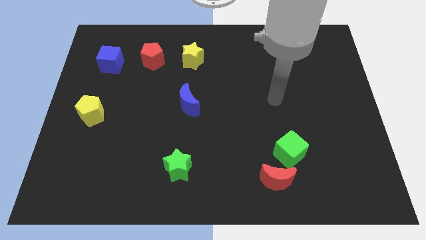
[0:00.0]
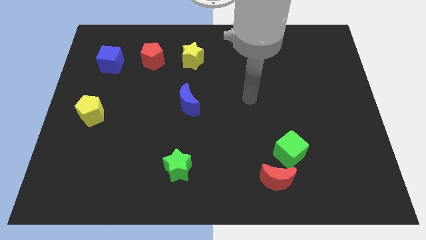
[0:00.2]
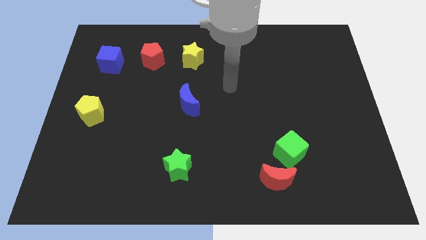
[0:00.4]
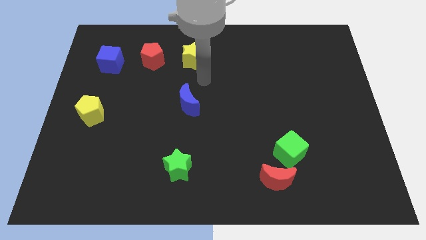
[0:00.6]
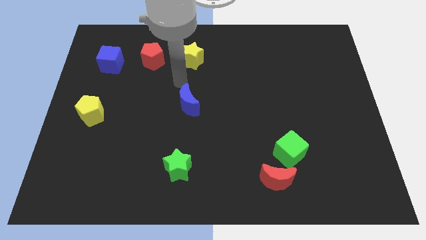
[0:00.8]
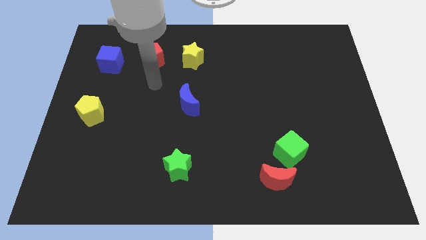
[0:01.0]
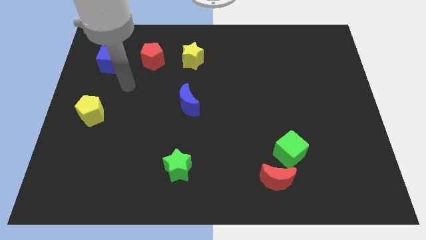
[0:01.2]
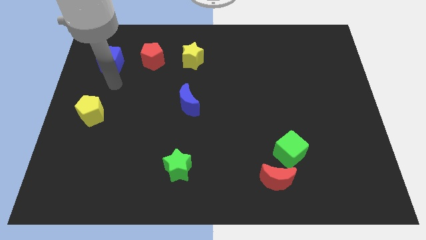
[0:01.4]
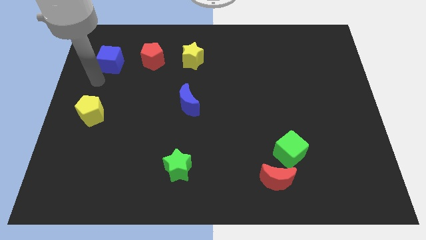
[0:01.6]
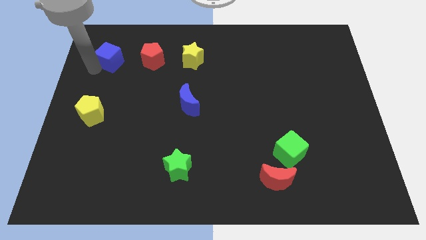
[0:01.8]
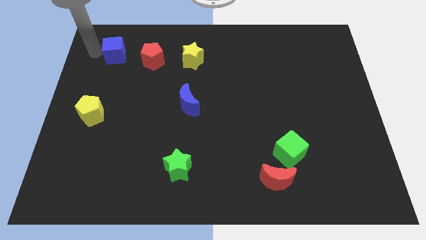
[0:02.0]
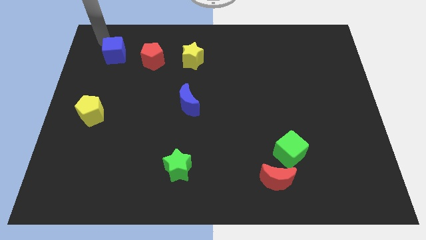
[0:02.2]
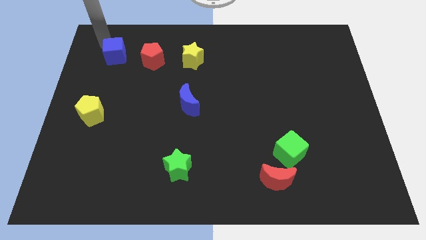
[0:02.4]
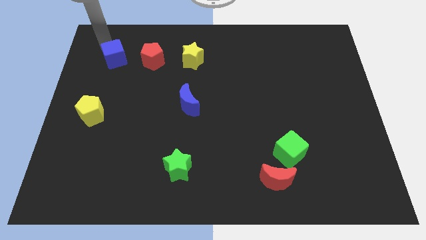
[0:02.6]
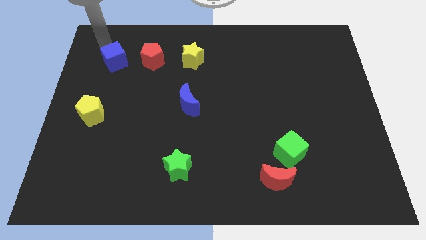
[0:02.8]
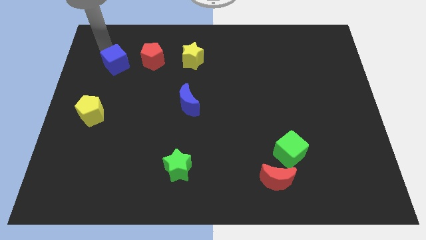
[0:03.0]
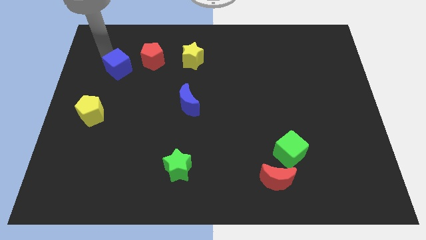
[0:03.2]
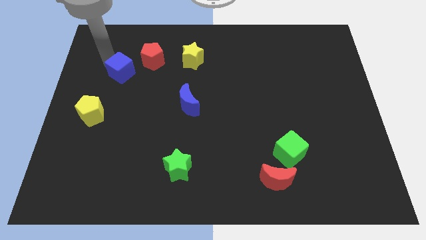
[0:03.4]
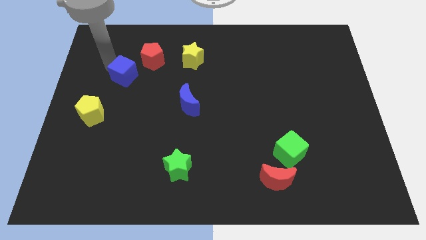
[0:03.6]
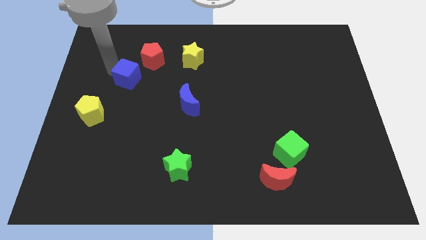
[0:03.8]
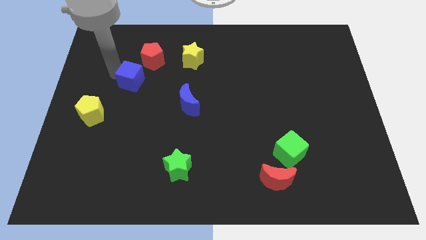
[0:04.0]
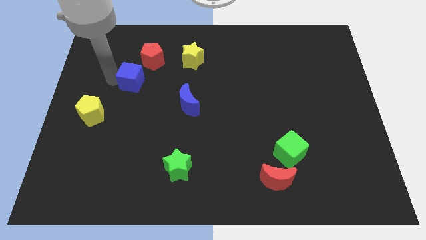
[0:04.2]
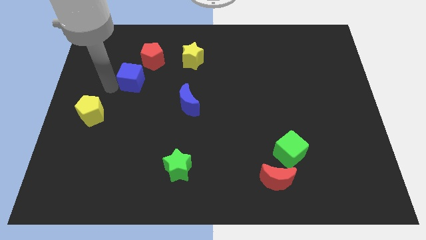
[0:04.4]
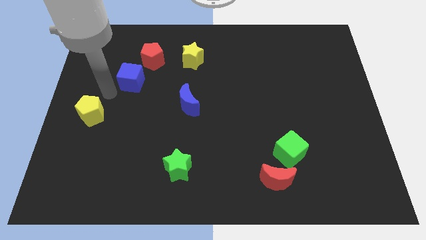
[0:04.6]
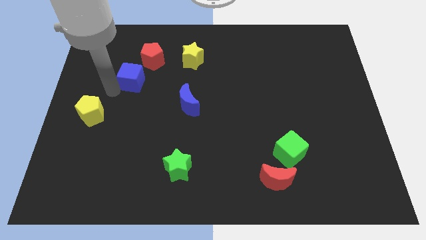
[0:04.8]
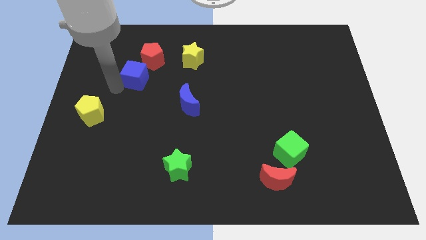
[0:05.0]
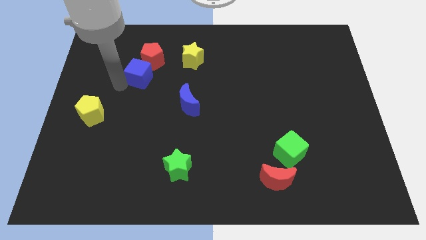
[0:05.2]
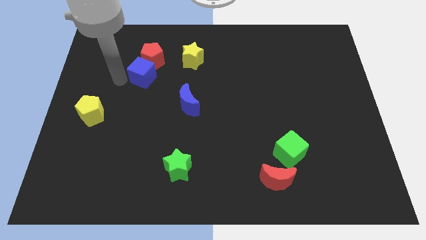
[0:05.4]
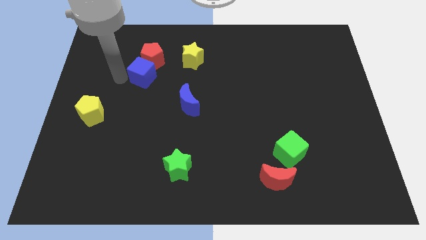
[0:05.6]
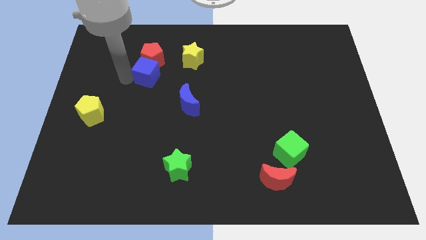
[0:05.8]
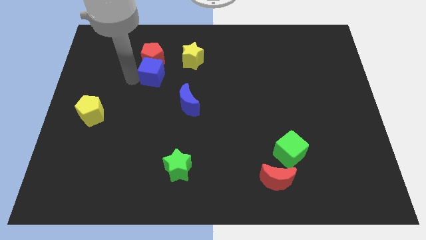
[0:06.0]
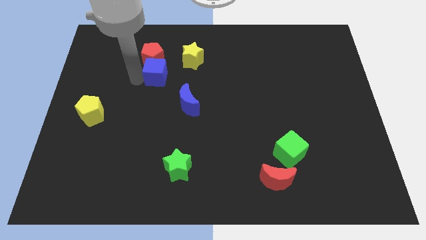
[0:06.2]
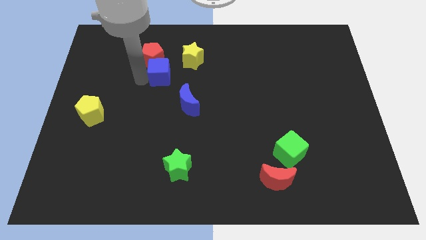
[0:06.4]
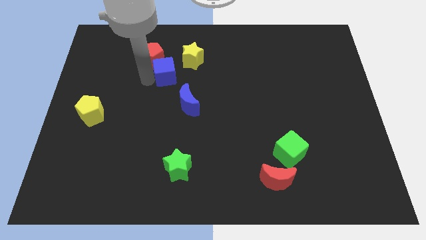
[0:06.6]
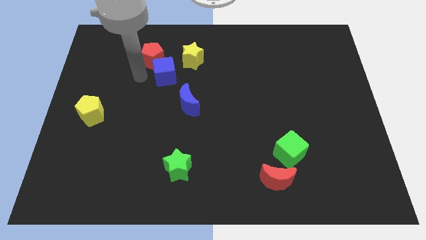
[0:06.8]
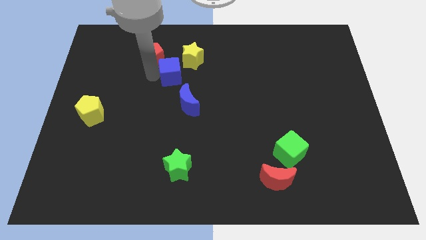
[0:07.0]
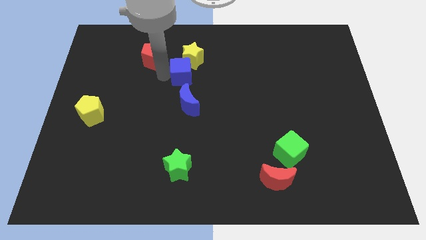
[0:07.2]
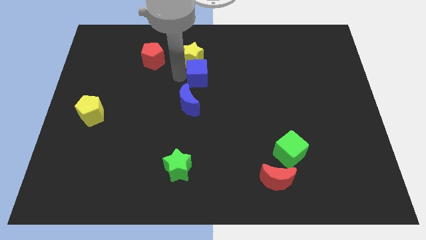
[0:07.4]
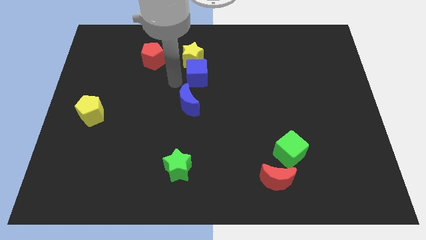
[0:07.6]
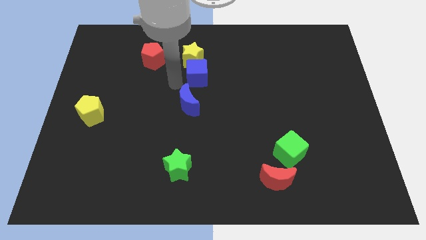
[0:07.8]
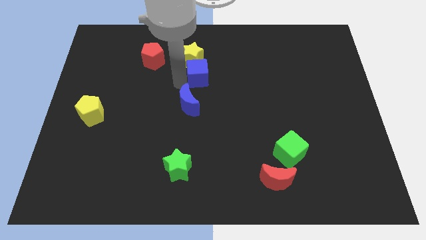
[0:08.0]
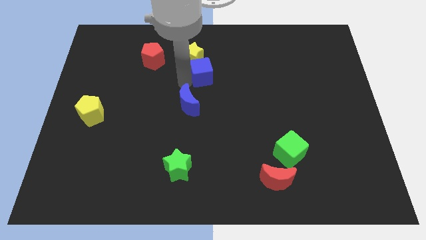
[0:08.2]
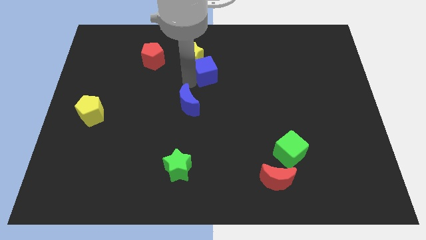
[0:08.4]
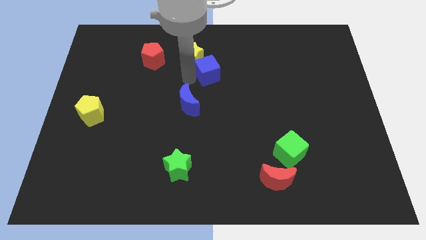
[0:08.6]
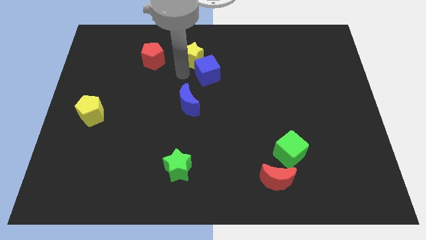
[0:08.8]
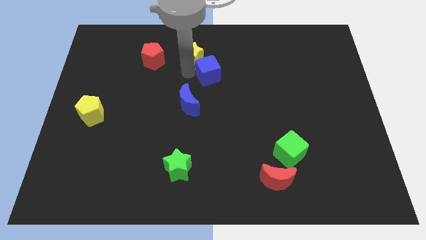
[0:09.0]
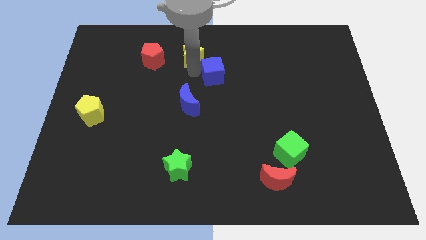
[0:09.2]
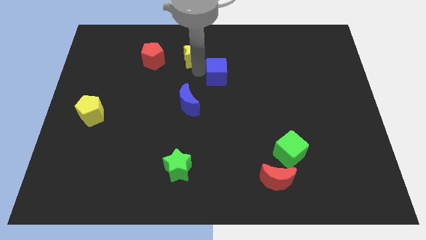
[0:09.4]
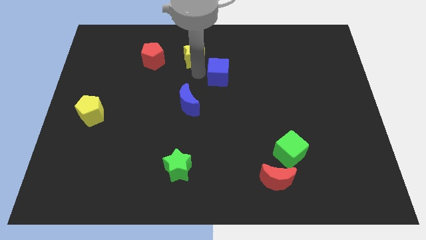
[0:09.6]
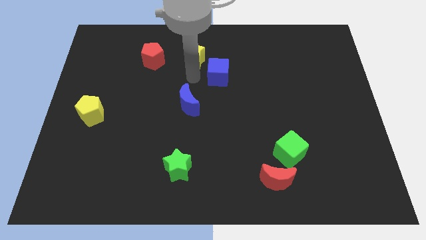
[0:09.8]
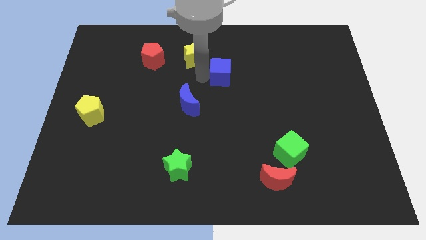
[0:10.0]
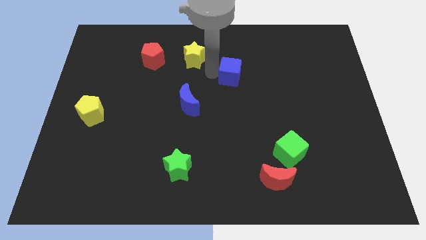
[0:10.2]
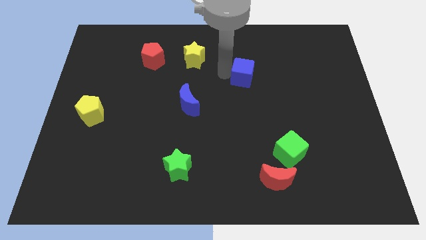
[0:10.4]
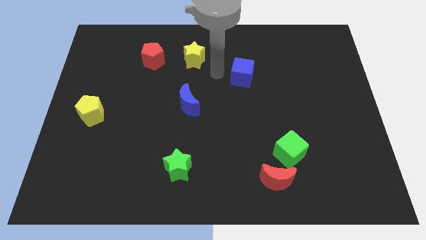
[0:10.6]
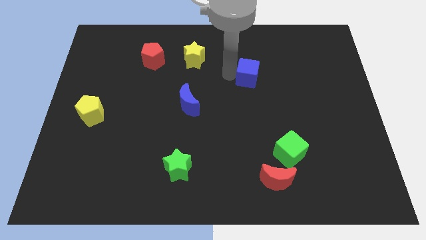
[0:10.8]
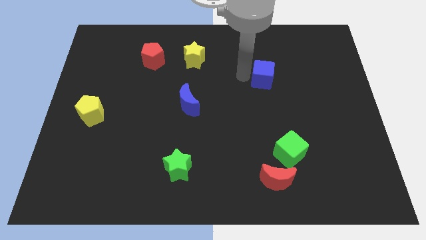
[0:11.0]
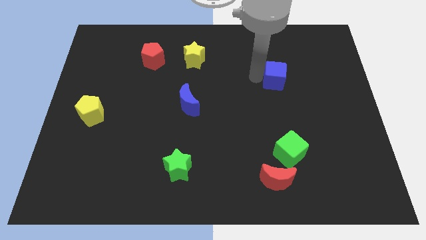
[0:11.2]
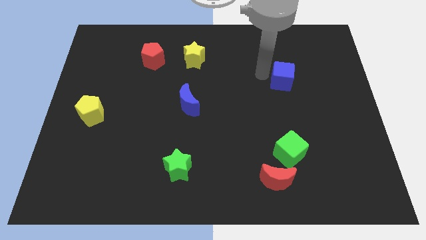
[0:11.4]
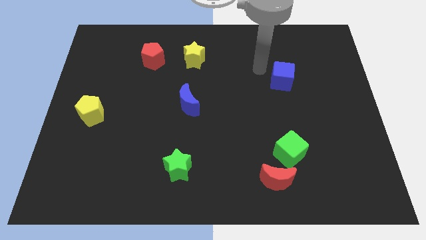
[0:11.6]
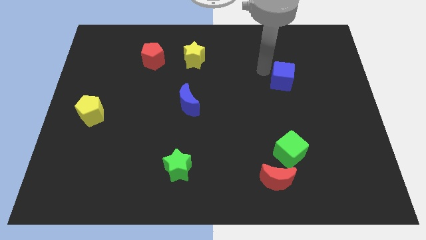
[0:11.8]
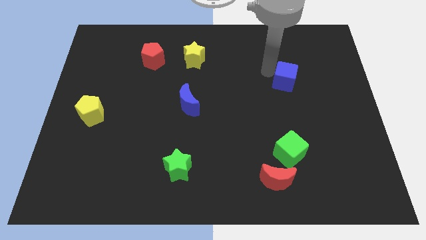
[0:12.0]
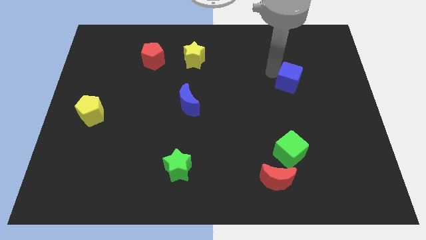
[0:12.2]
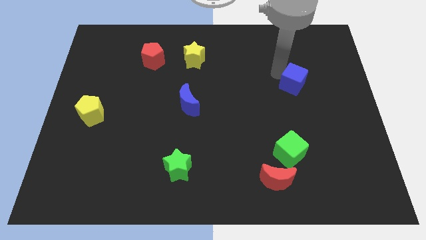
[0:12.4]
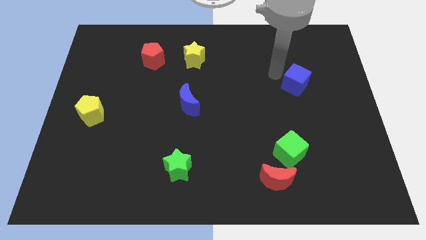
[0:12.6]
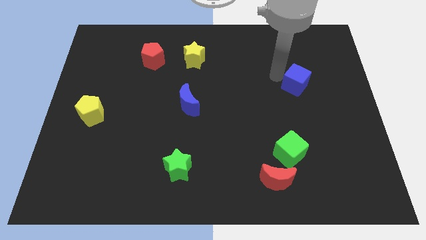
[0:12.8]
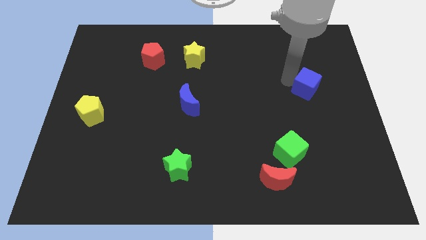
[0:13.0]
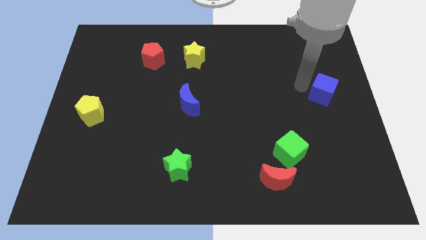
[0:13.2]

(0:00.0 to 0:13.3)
slide the blue cube to the right side of the board
